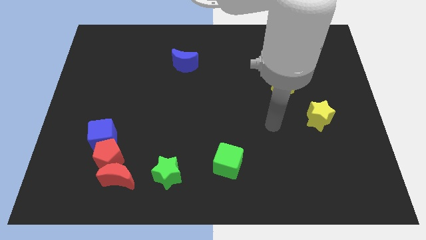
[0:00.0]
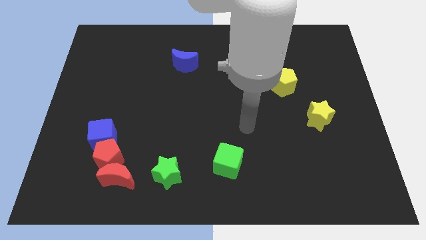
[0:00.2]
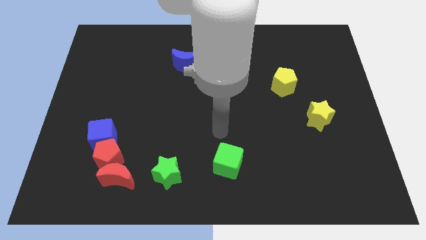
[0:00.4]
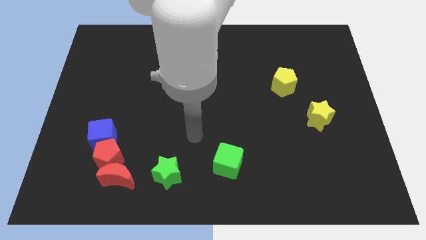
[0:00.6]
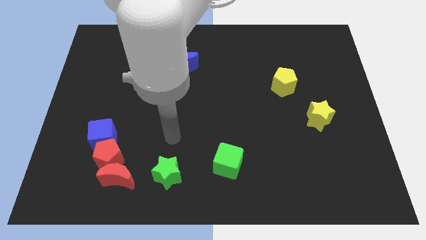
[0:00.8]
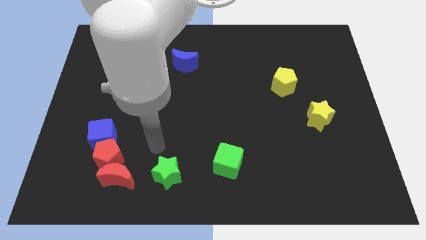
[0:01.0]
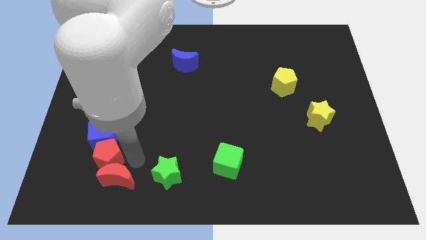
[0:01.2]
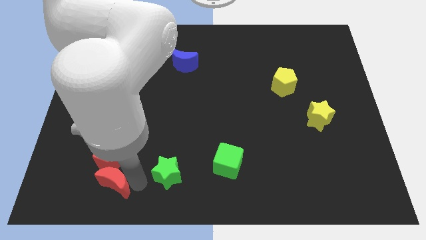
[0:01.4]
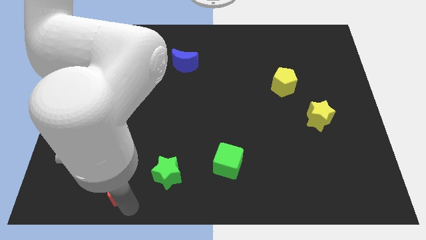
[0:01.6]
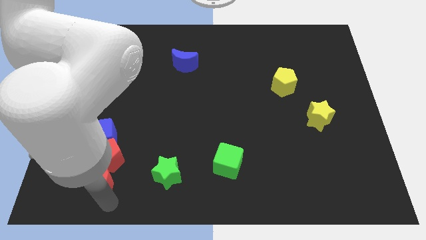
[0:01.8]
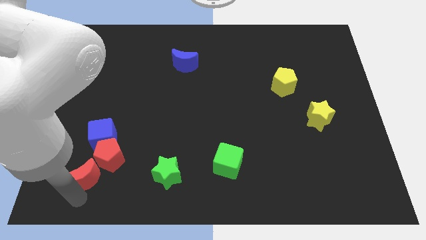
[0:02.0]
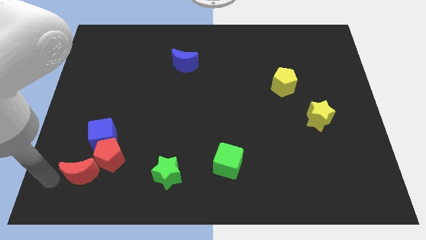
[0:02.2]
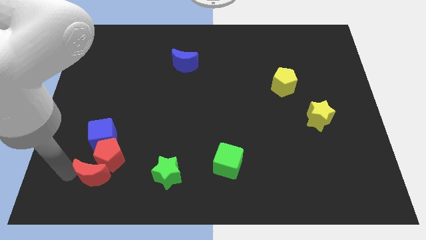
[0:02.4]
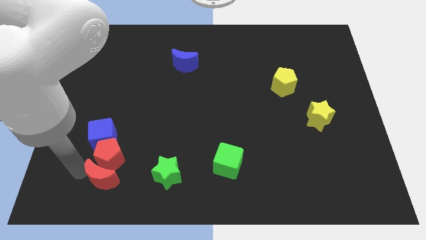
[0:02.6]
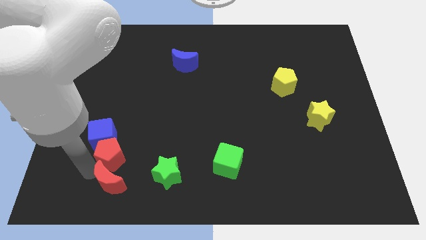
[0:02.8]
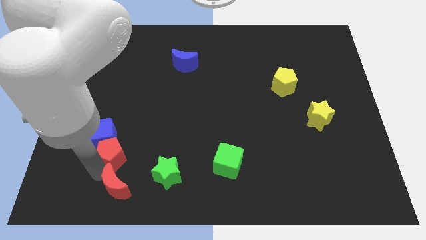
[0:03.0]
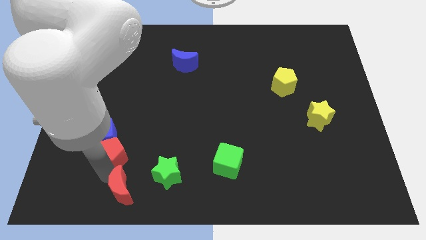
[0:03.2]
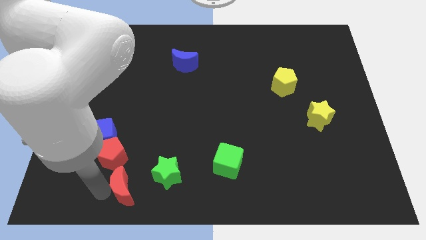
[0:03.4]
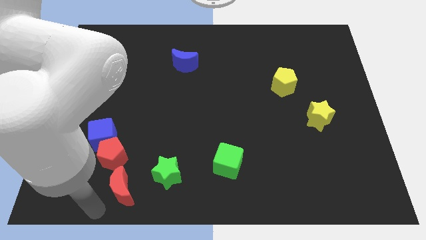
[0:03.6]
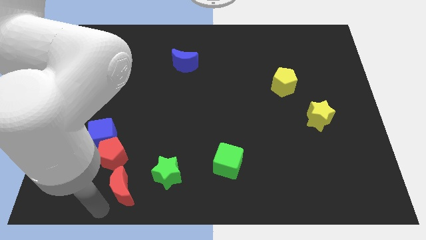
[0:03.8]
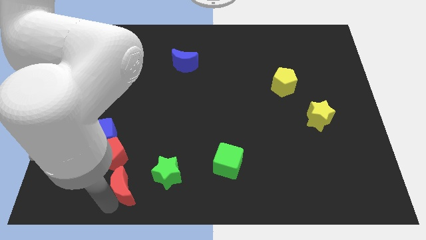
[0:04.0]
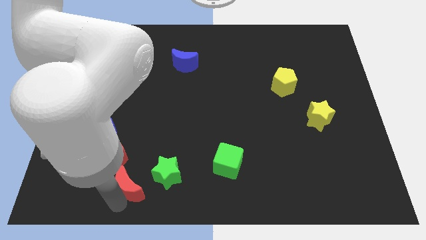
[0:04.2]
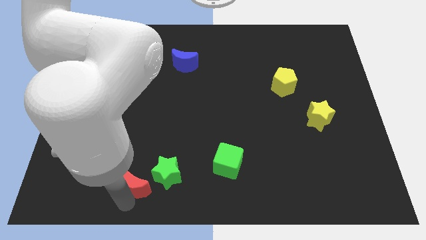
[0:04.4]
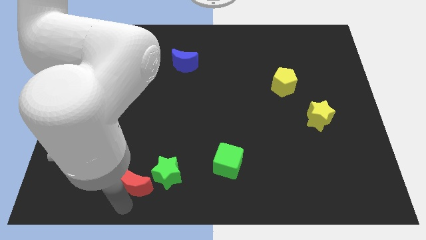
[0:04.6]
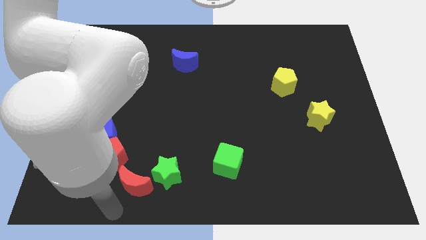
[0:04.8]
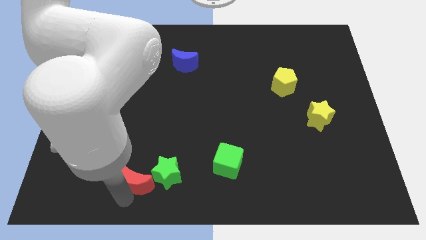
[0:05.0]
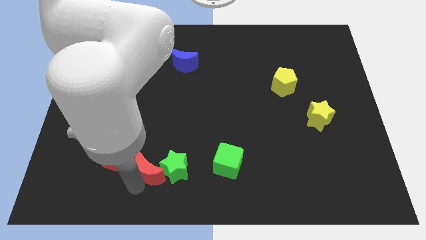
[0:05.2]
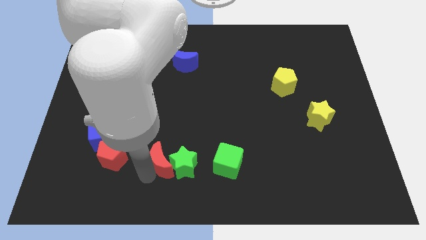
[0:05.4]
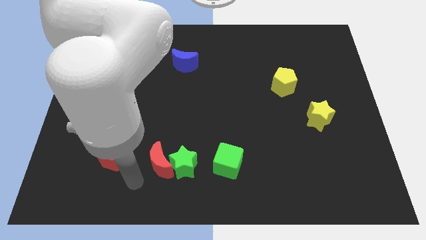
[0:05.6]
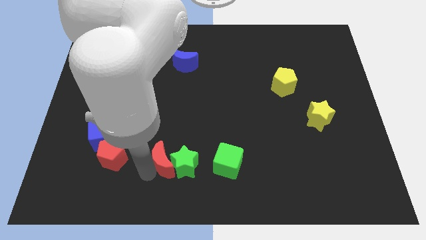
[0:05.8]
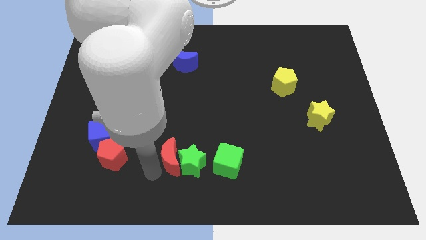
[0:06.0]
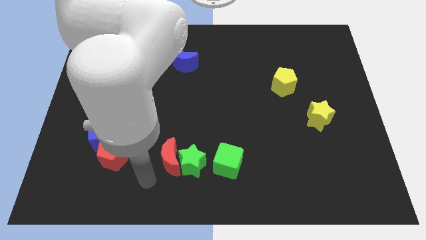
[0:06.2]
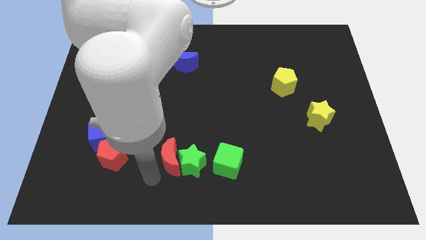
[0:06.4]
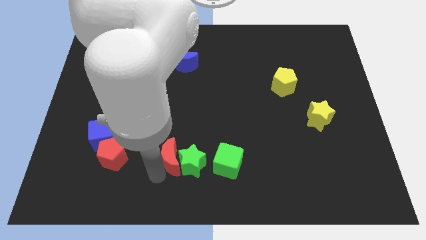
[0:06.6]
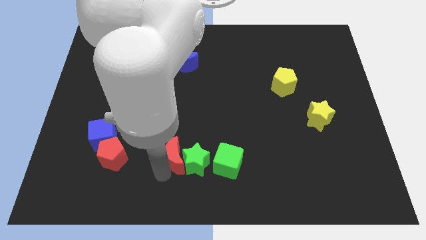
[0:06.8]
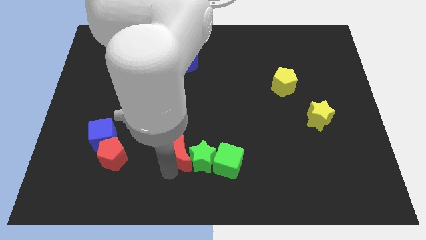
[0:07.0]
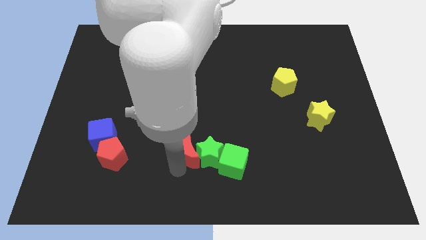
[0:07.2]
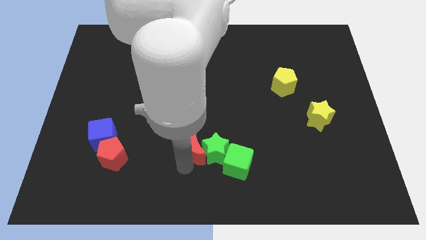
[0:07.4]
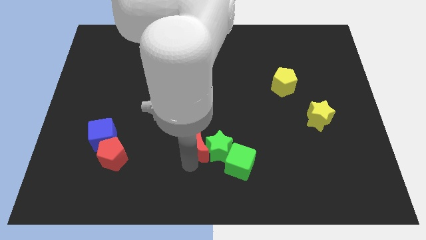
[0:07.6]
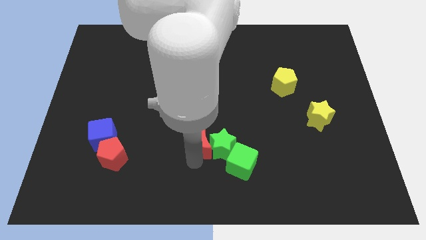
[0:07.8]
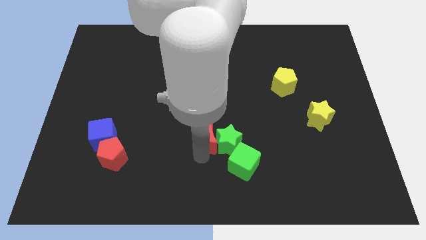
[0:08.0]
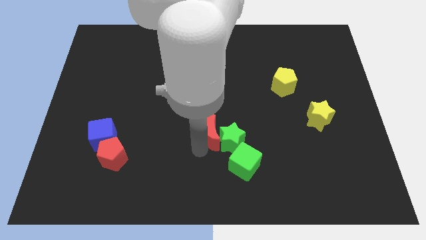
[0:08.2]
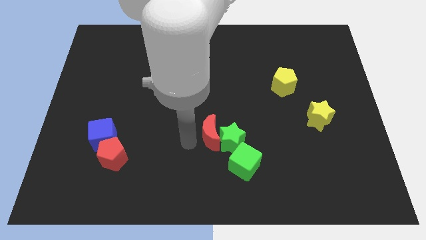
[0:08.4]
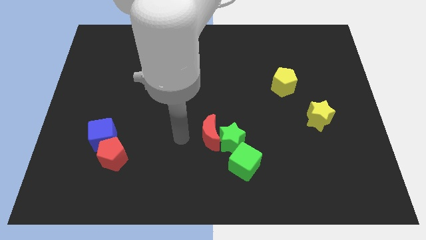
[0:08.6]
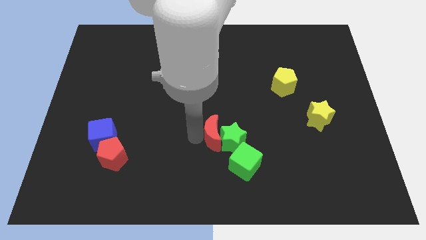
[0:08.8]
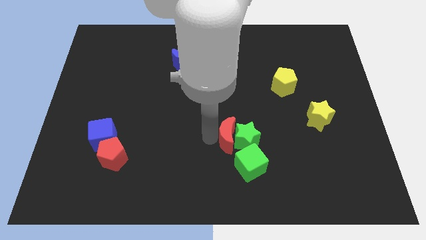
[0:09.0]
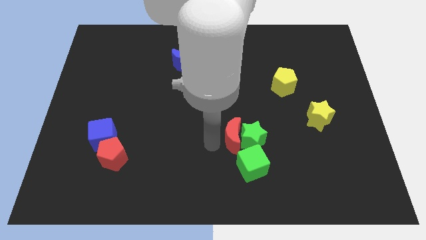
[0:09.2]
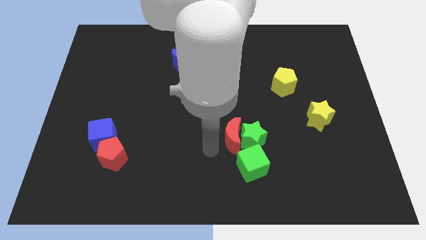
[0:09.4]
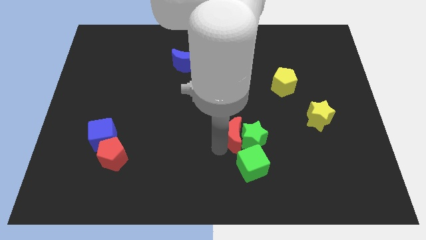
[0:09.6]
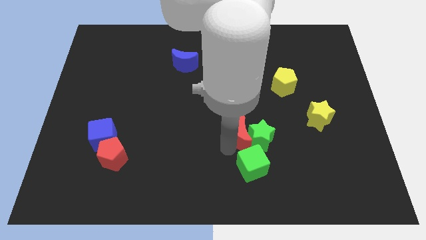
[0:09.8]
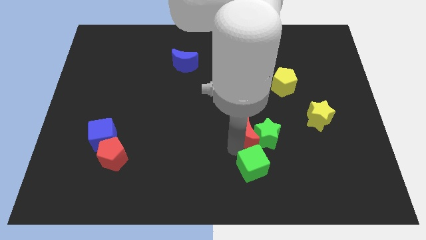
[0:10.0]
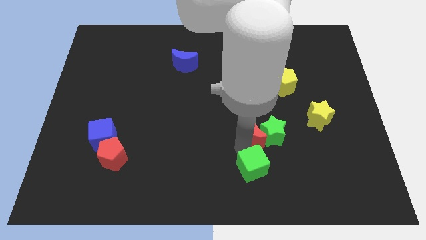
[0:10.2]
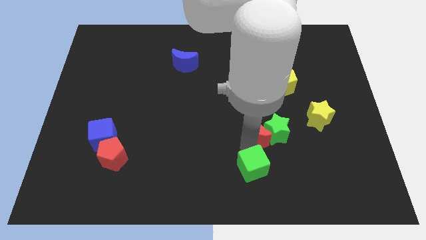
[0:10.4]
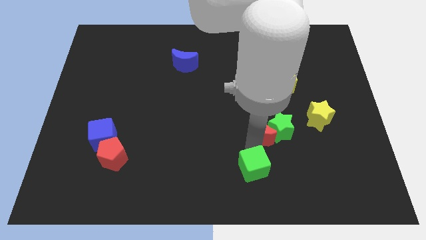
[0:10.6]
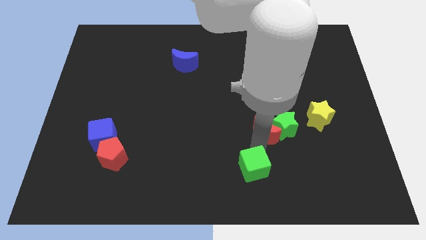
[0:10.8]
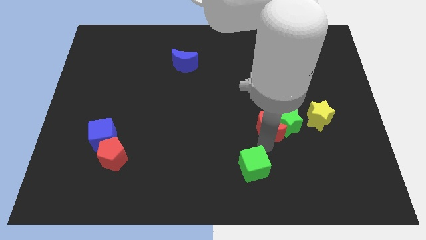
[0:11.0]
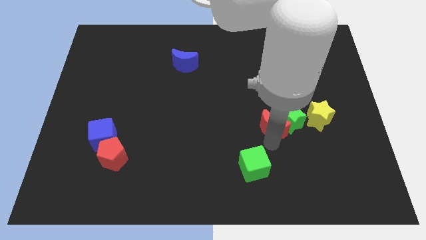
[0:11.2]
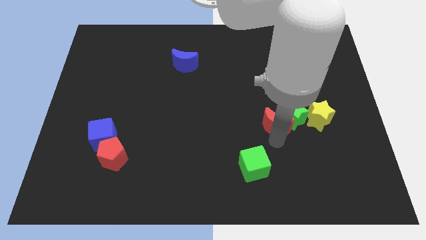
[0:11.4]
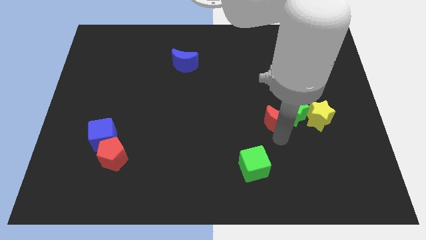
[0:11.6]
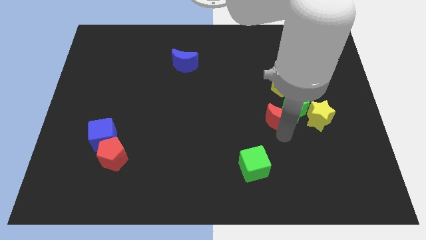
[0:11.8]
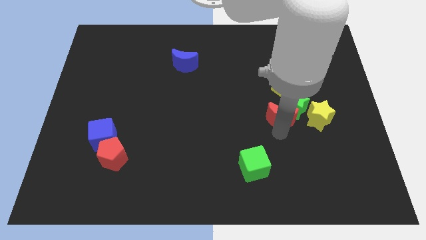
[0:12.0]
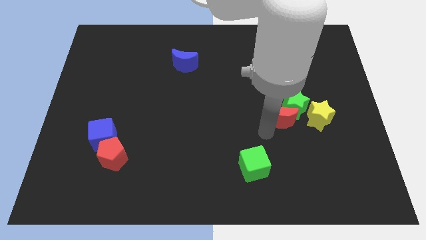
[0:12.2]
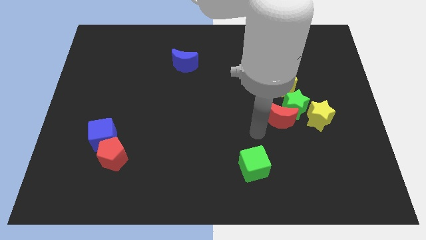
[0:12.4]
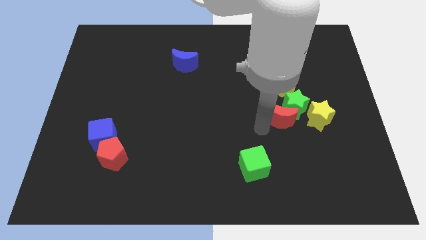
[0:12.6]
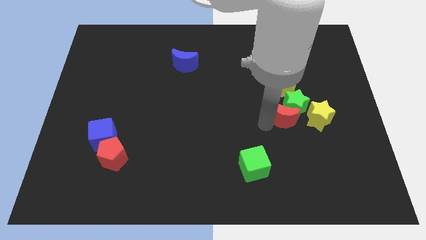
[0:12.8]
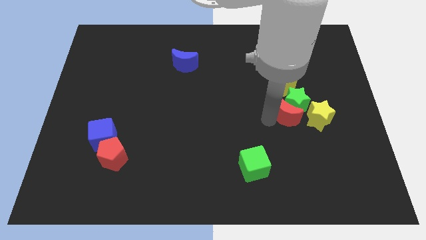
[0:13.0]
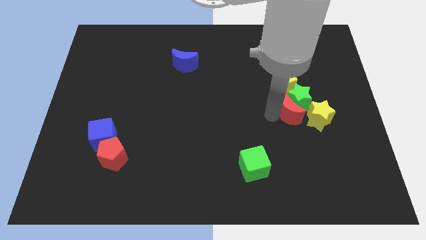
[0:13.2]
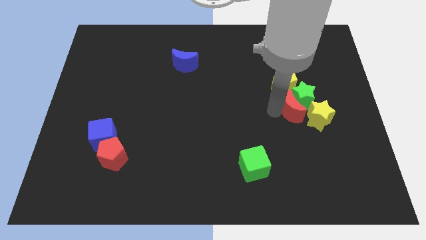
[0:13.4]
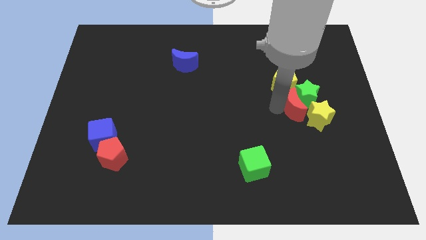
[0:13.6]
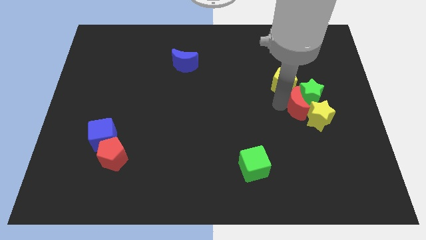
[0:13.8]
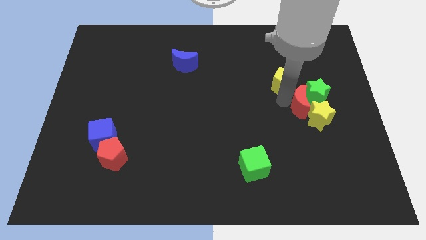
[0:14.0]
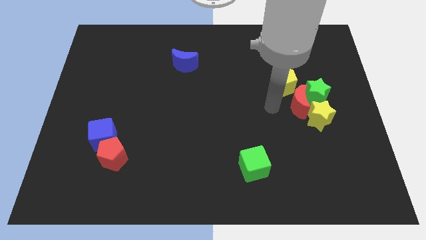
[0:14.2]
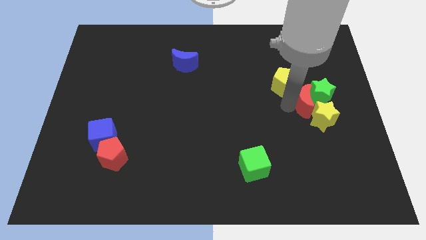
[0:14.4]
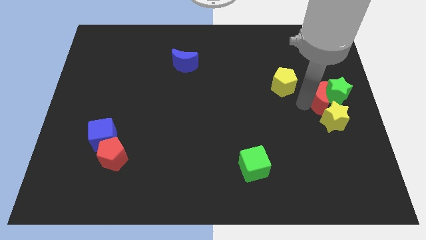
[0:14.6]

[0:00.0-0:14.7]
push the red moon to the center right
